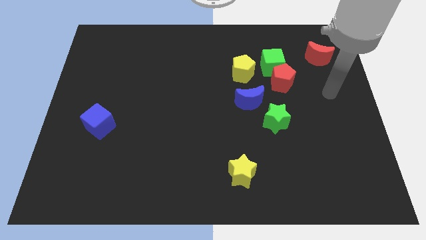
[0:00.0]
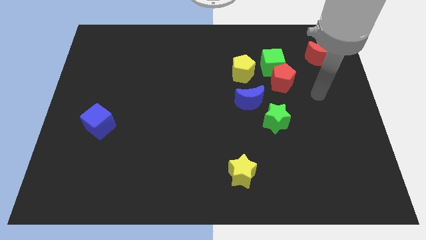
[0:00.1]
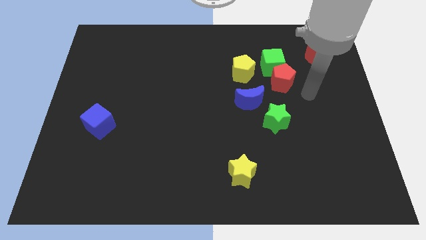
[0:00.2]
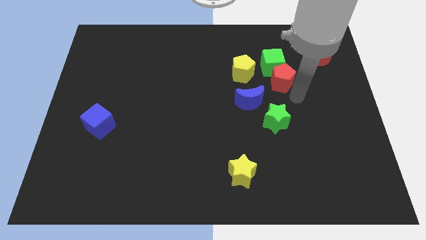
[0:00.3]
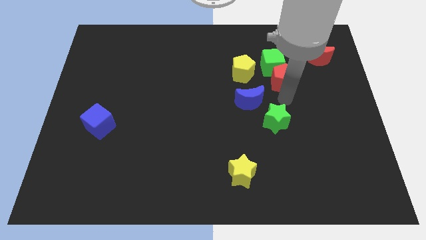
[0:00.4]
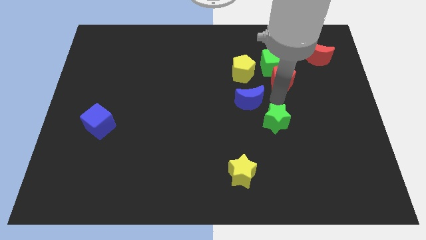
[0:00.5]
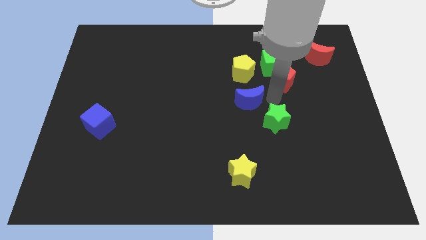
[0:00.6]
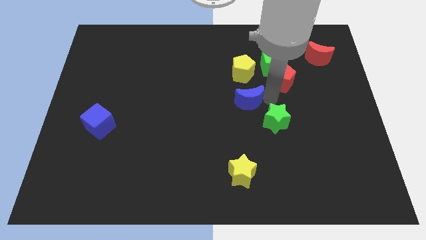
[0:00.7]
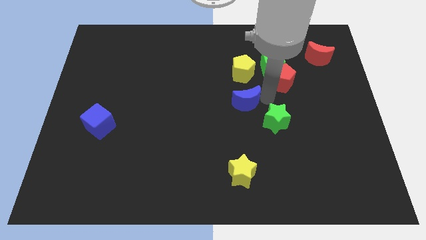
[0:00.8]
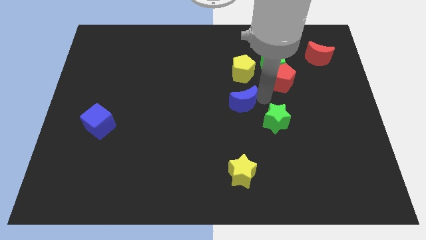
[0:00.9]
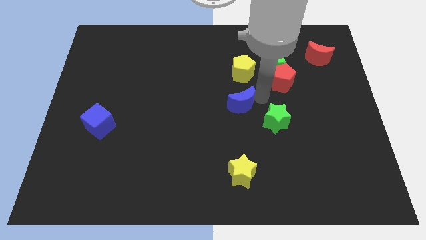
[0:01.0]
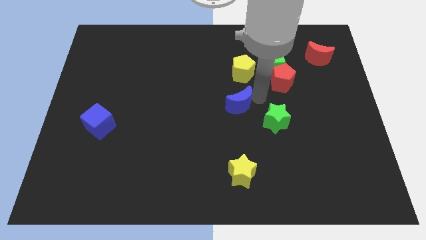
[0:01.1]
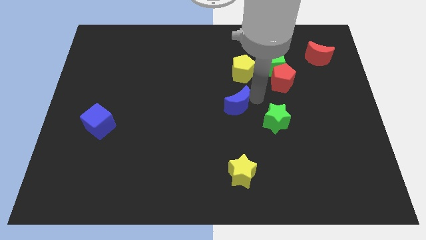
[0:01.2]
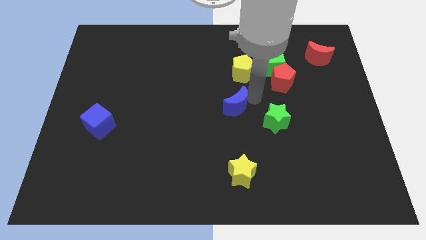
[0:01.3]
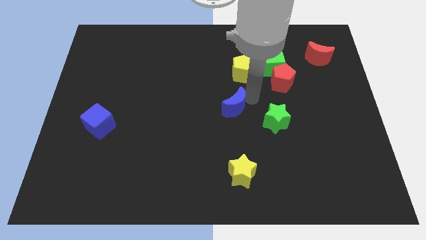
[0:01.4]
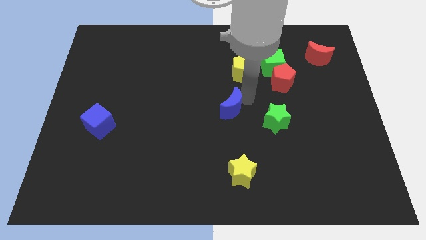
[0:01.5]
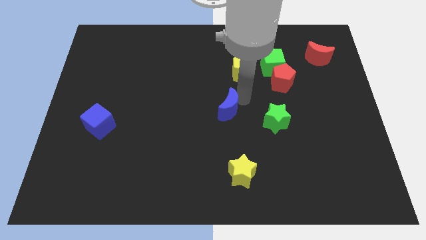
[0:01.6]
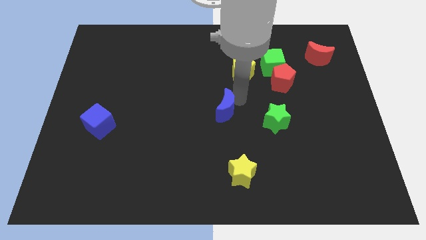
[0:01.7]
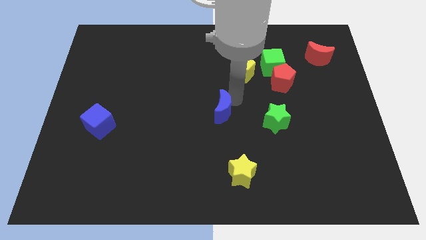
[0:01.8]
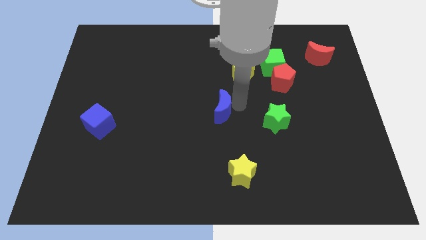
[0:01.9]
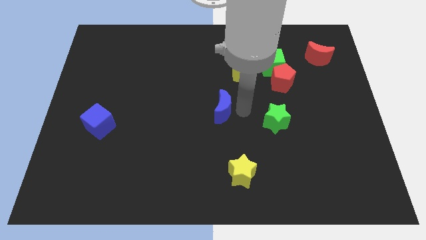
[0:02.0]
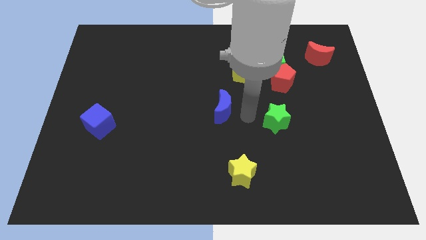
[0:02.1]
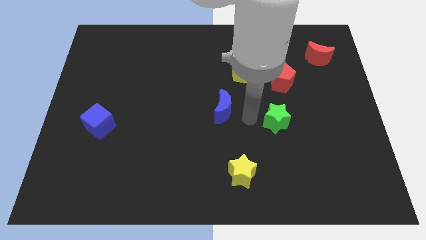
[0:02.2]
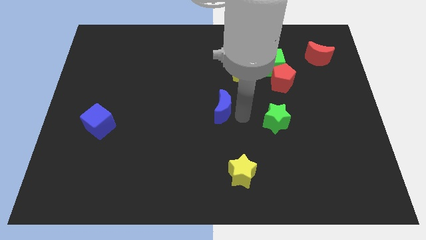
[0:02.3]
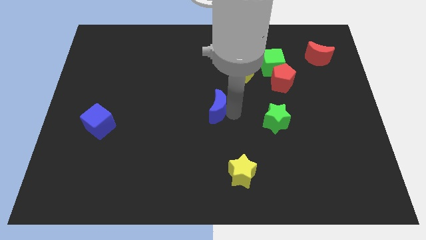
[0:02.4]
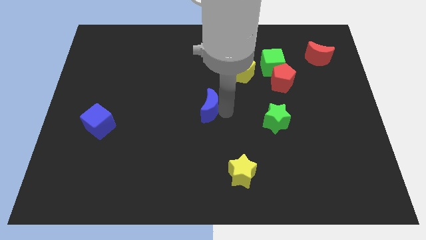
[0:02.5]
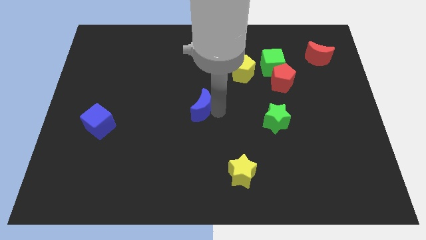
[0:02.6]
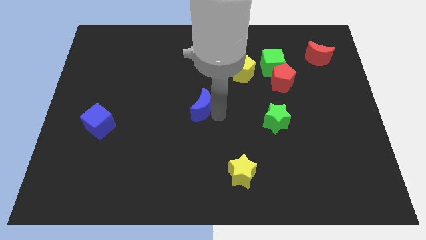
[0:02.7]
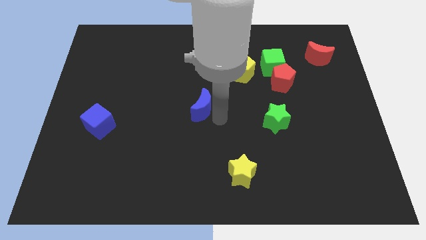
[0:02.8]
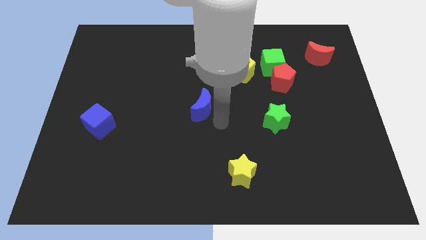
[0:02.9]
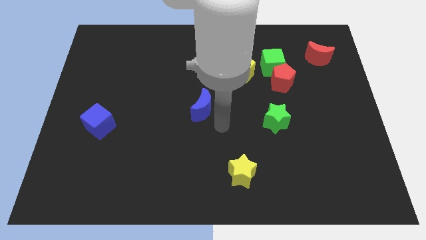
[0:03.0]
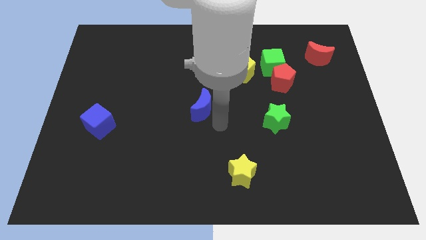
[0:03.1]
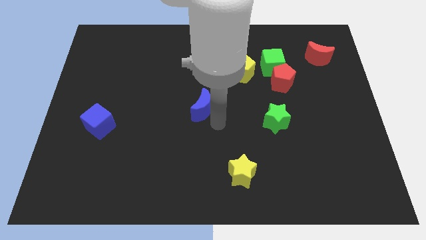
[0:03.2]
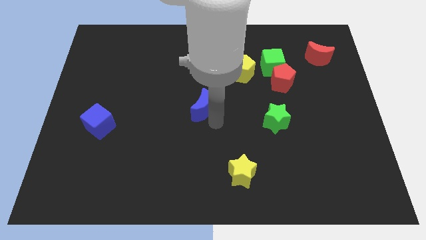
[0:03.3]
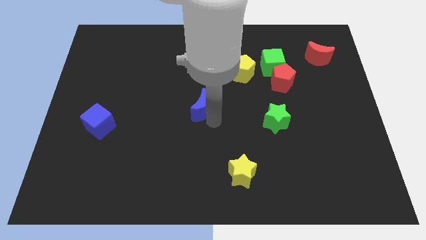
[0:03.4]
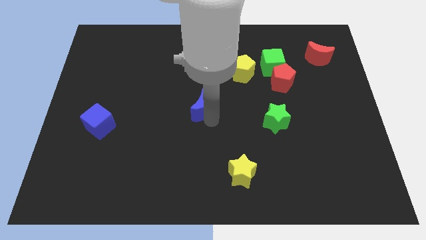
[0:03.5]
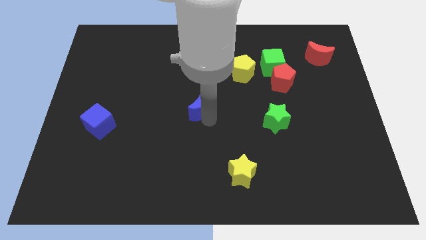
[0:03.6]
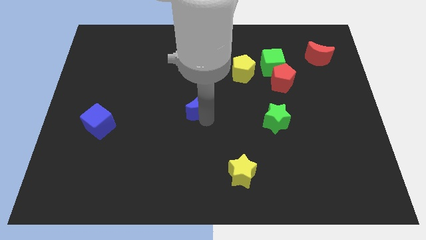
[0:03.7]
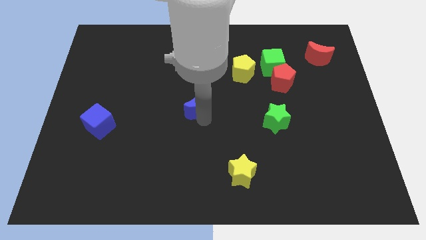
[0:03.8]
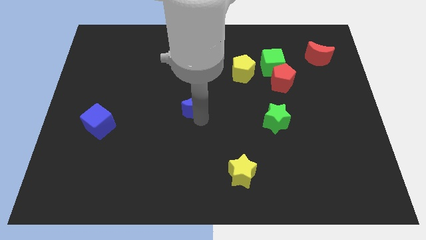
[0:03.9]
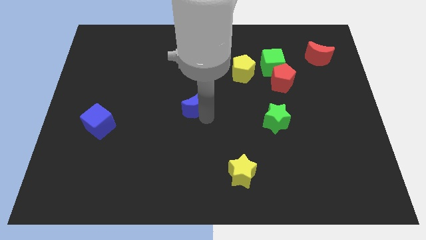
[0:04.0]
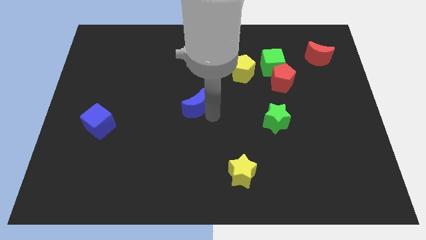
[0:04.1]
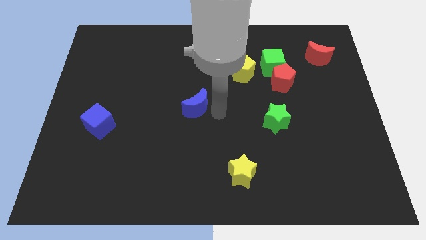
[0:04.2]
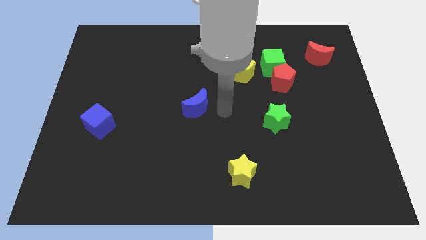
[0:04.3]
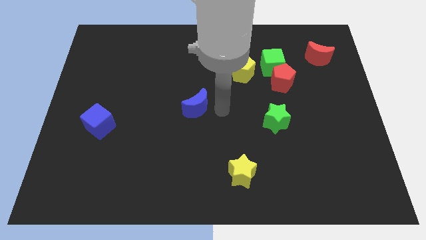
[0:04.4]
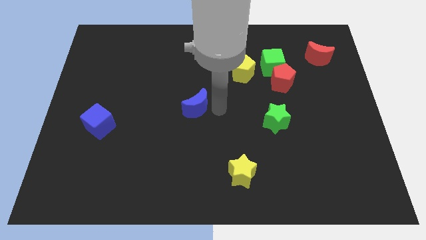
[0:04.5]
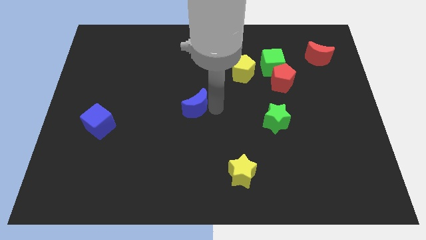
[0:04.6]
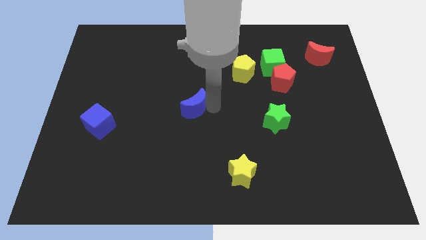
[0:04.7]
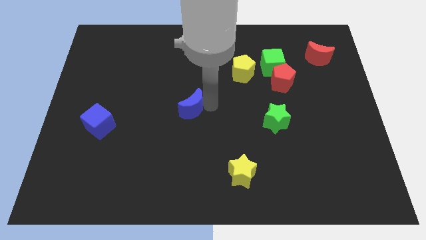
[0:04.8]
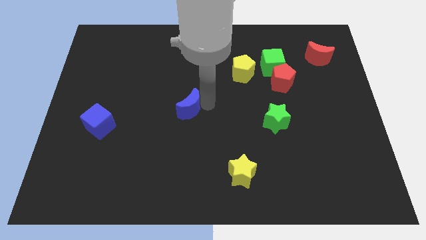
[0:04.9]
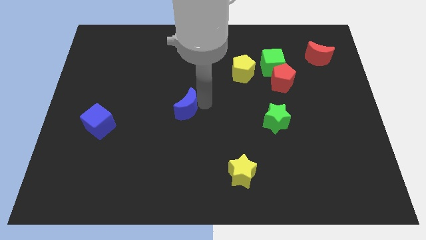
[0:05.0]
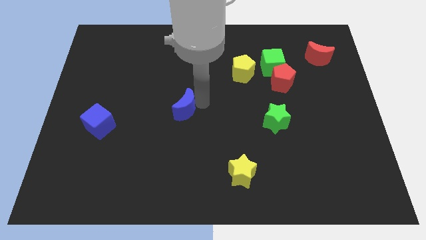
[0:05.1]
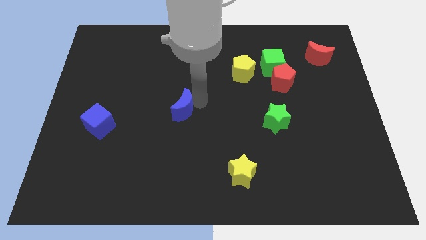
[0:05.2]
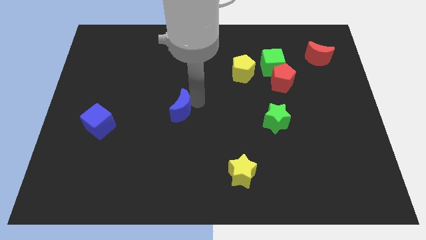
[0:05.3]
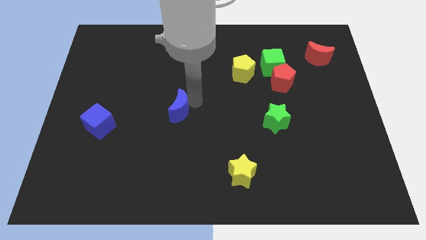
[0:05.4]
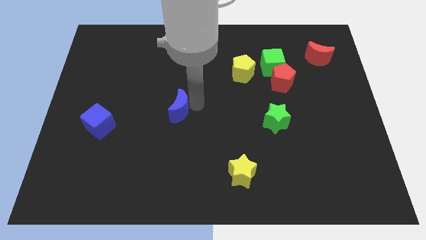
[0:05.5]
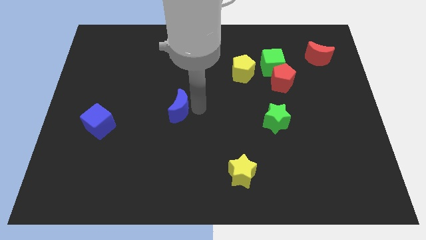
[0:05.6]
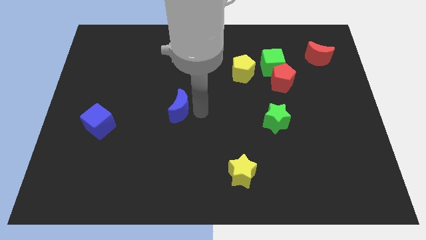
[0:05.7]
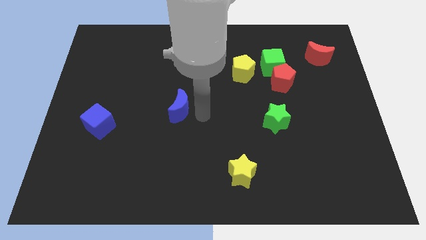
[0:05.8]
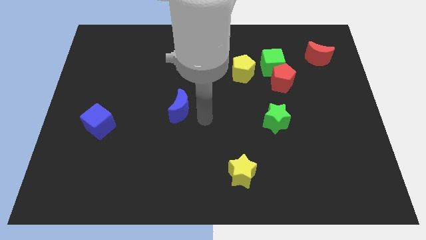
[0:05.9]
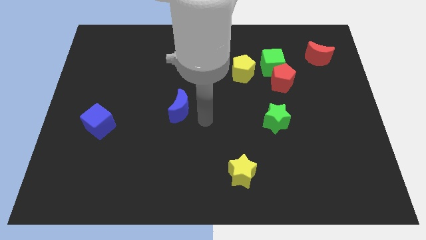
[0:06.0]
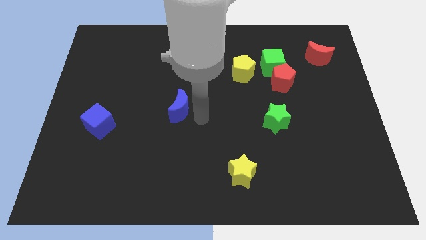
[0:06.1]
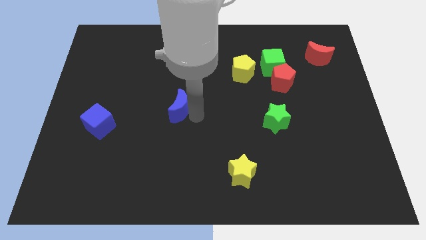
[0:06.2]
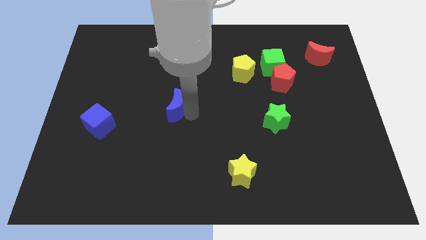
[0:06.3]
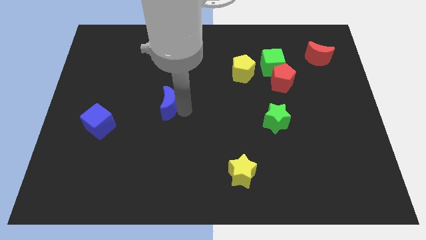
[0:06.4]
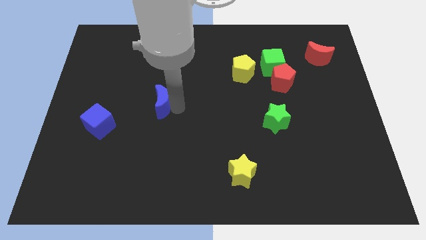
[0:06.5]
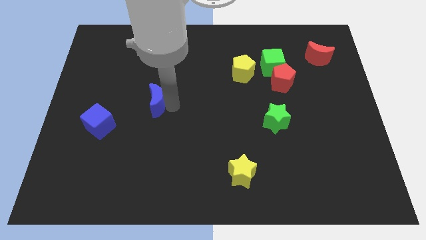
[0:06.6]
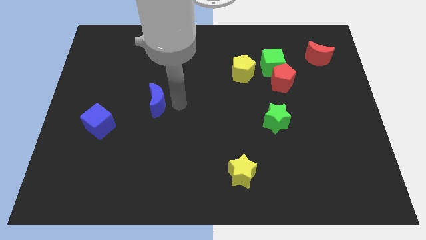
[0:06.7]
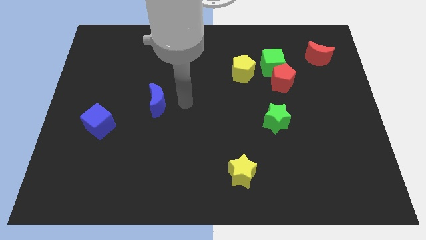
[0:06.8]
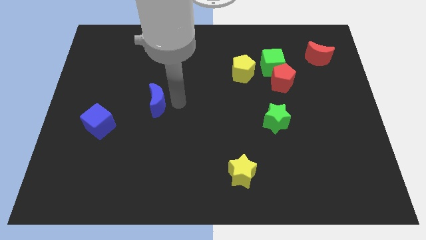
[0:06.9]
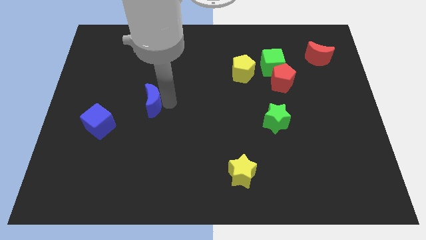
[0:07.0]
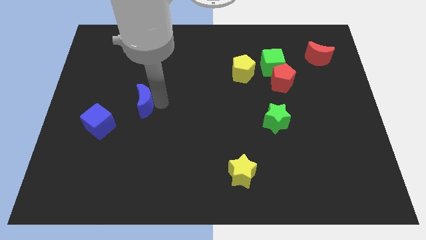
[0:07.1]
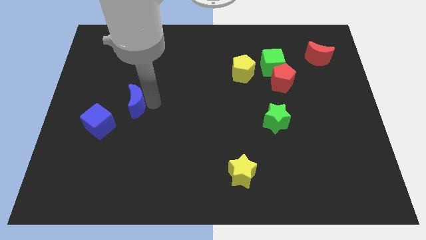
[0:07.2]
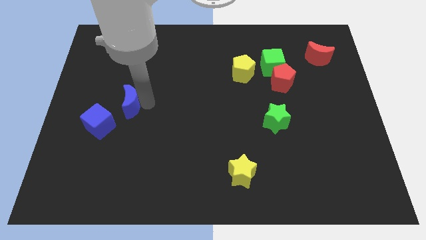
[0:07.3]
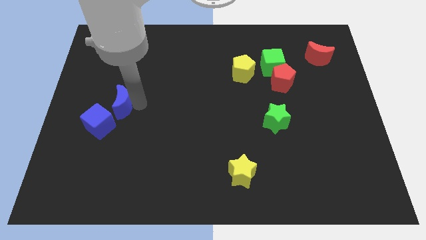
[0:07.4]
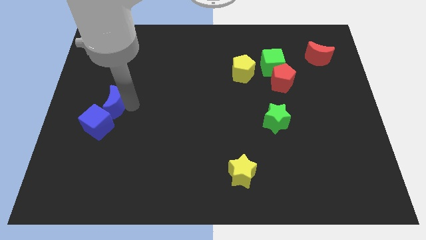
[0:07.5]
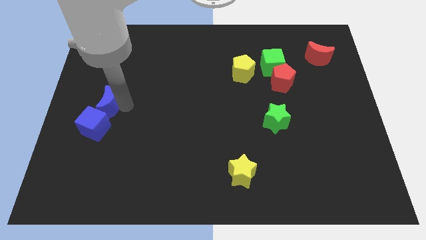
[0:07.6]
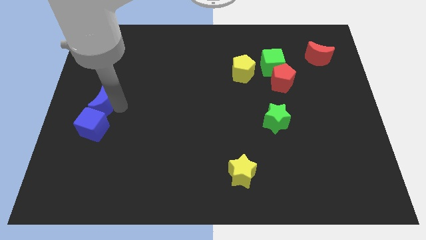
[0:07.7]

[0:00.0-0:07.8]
slide the blue moon to the center left
